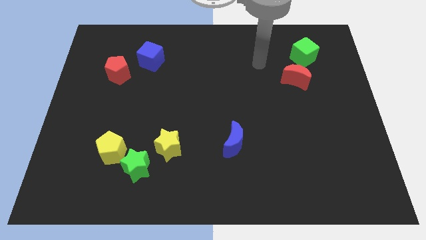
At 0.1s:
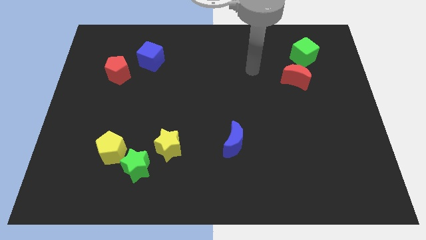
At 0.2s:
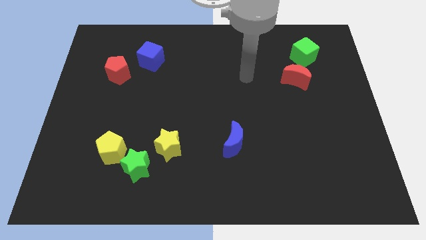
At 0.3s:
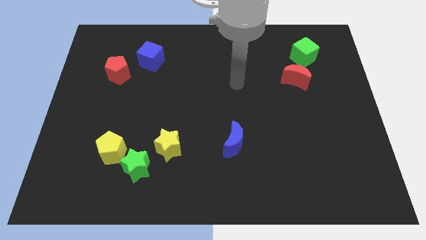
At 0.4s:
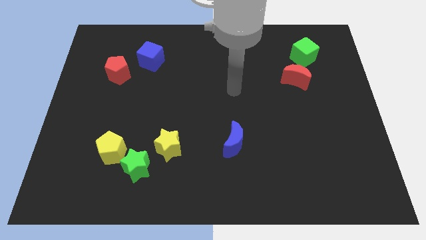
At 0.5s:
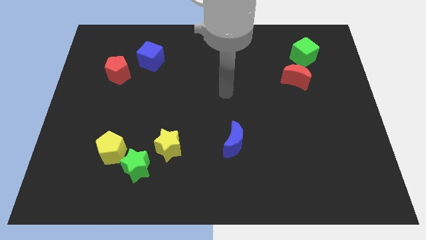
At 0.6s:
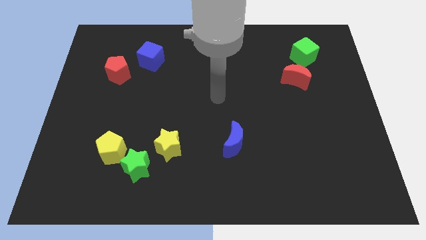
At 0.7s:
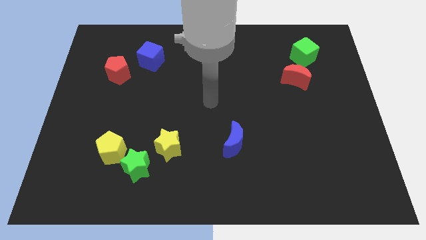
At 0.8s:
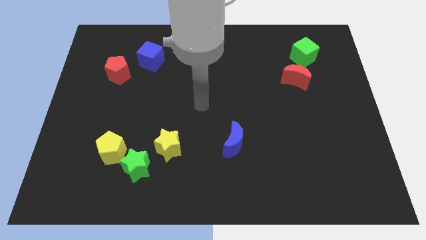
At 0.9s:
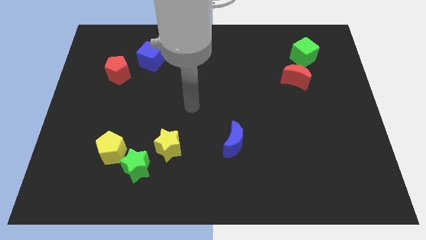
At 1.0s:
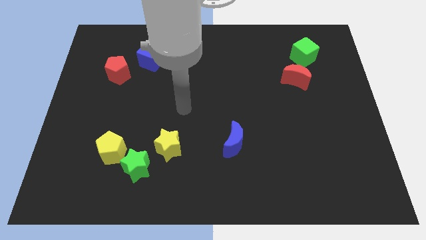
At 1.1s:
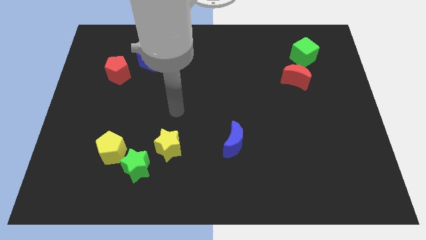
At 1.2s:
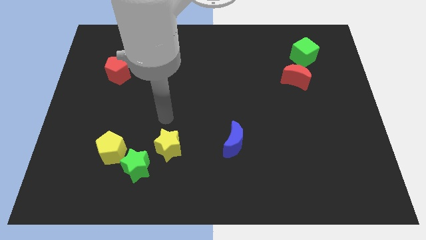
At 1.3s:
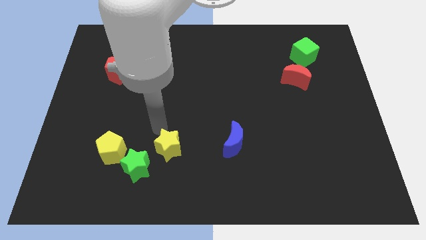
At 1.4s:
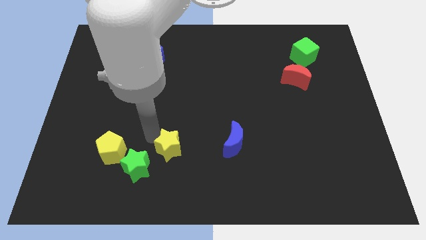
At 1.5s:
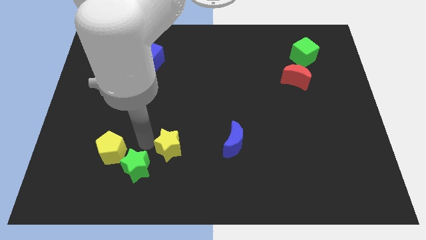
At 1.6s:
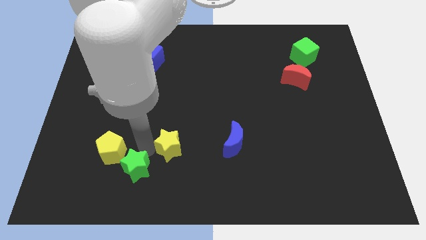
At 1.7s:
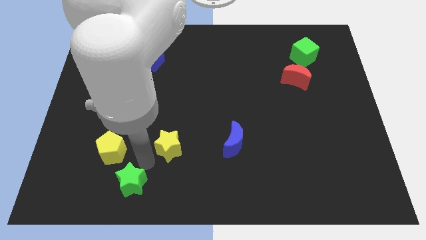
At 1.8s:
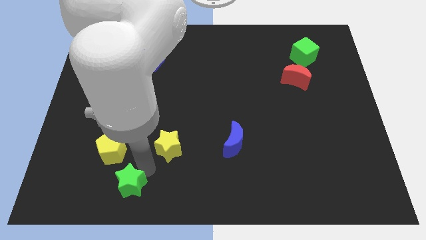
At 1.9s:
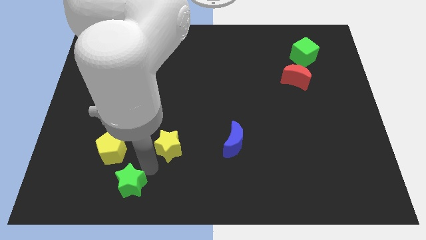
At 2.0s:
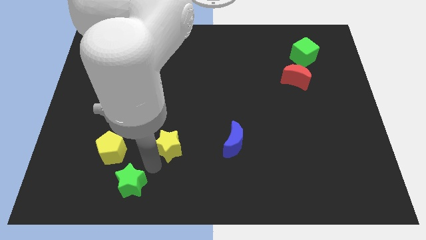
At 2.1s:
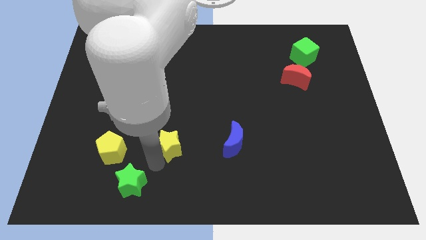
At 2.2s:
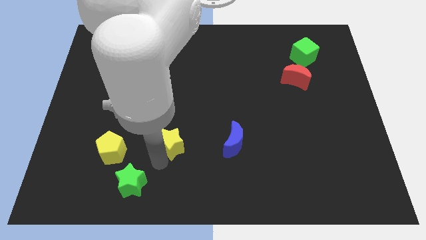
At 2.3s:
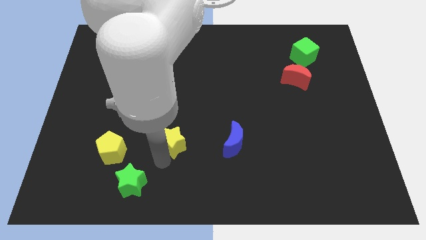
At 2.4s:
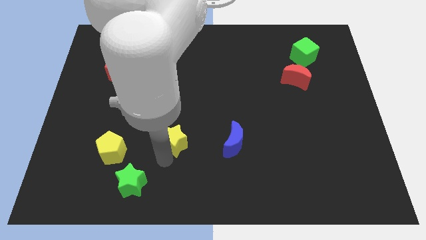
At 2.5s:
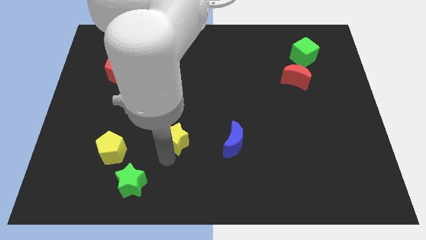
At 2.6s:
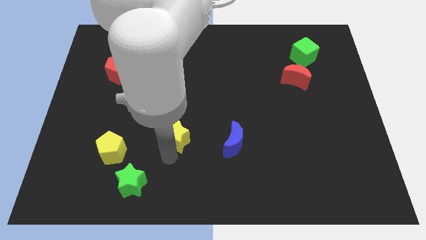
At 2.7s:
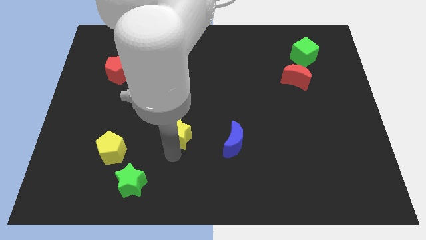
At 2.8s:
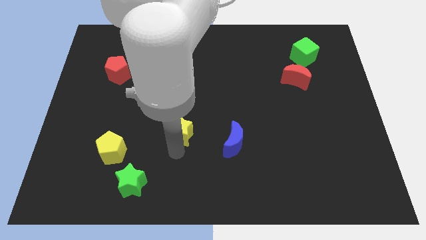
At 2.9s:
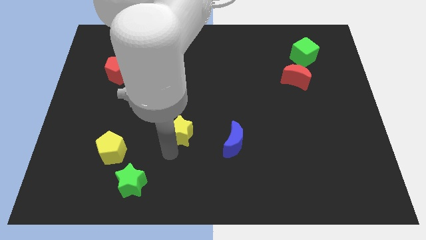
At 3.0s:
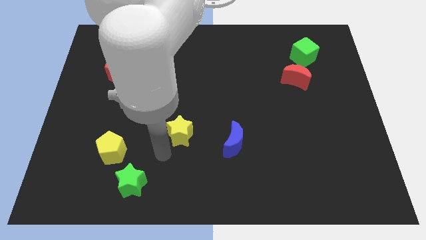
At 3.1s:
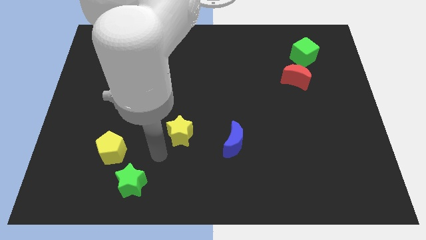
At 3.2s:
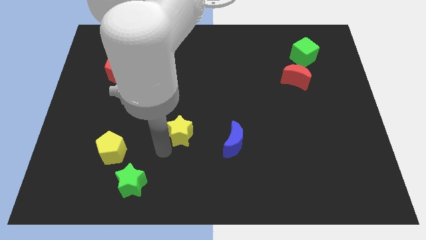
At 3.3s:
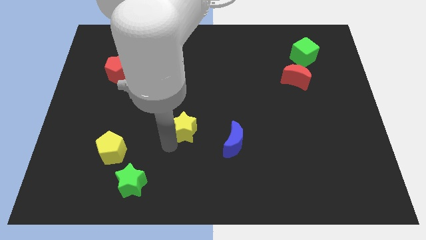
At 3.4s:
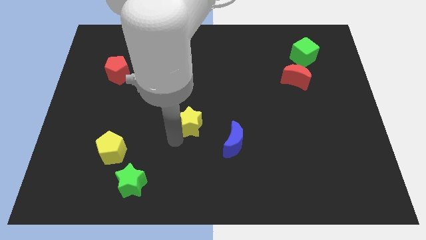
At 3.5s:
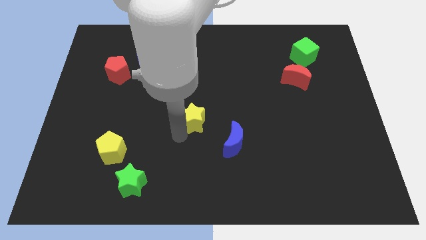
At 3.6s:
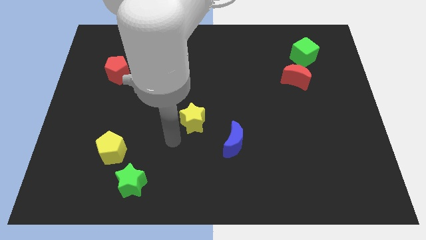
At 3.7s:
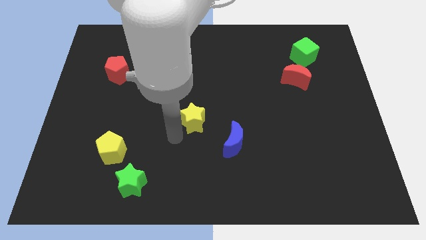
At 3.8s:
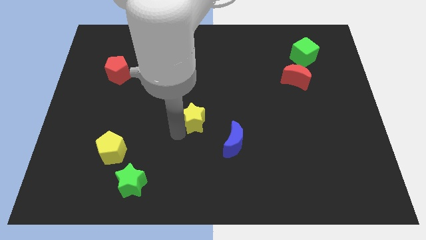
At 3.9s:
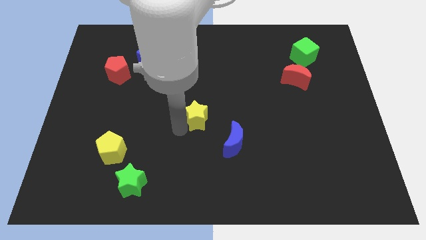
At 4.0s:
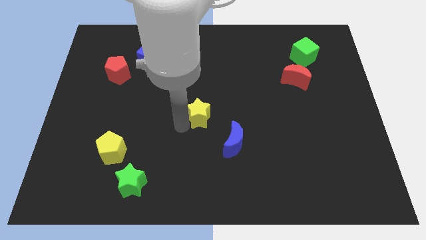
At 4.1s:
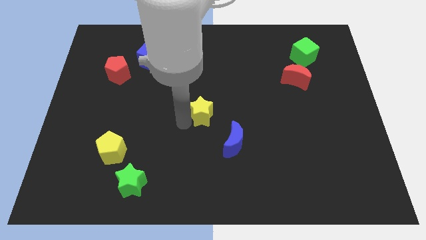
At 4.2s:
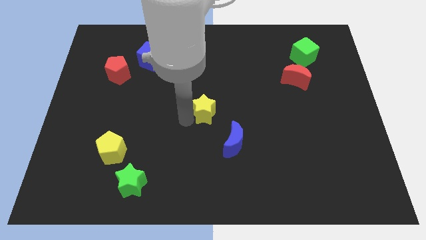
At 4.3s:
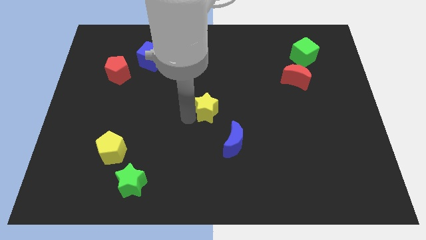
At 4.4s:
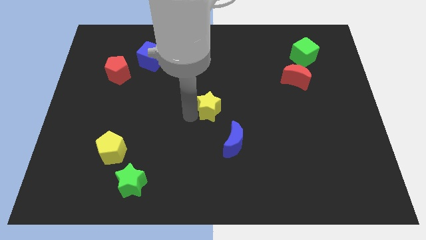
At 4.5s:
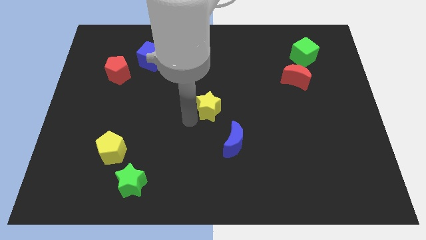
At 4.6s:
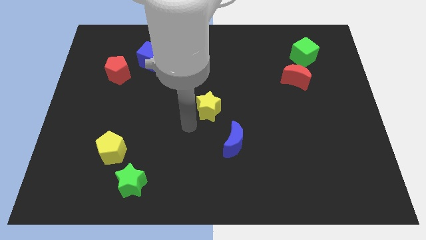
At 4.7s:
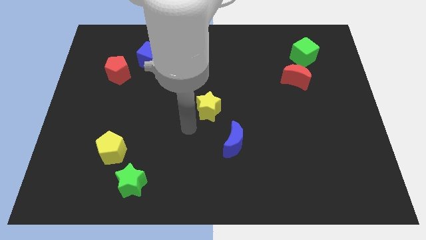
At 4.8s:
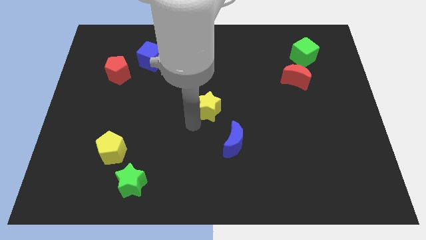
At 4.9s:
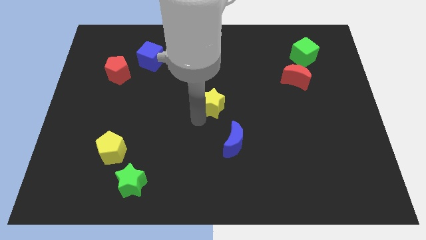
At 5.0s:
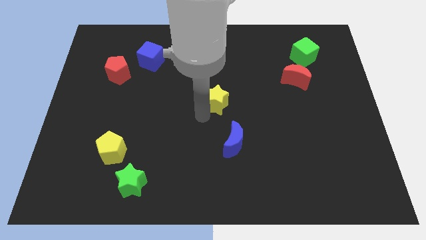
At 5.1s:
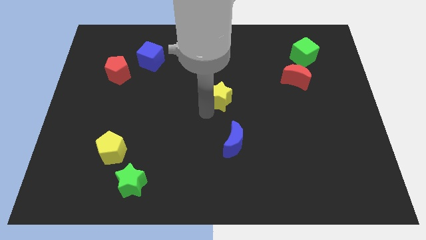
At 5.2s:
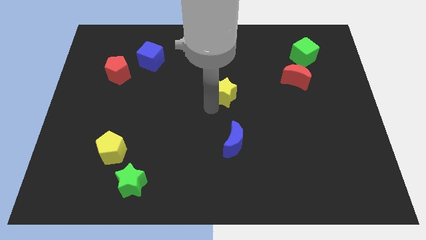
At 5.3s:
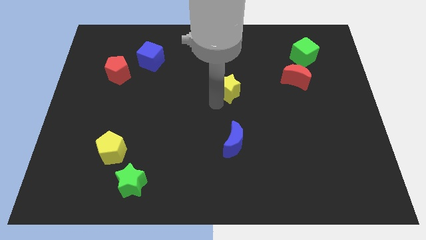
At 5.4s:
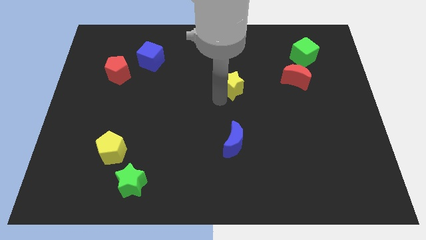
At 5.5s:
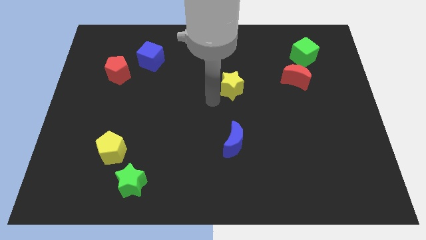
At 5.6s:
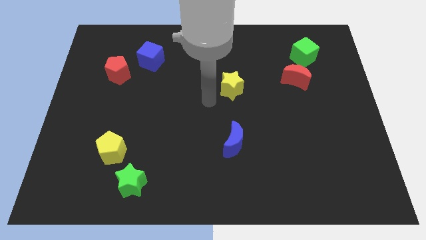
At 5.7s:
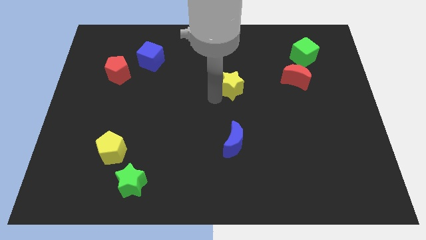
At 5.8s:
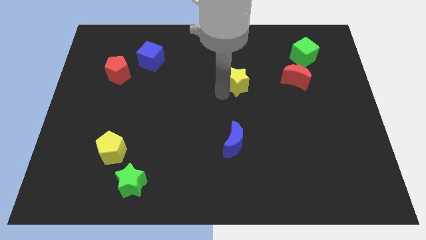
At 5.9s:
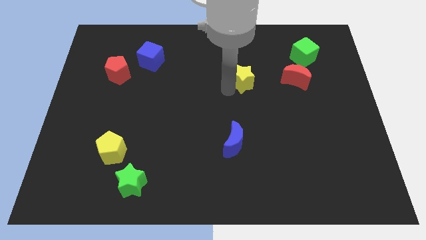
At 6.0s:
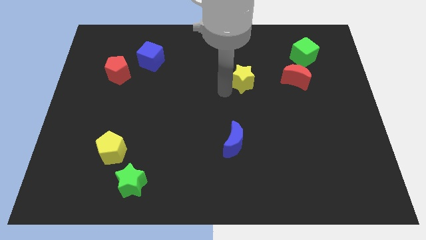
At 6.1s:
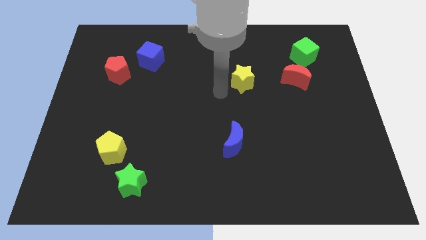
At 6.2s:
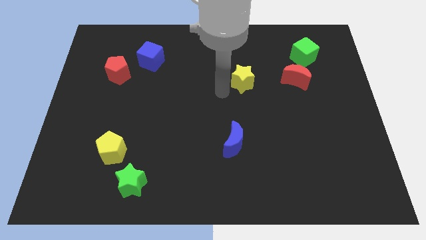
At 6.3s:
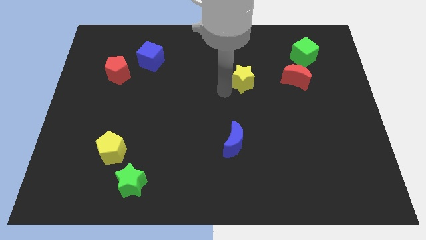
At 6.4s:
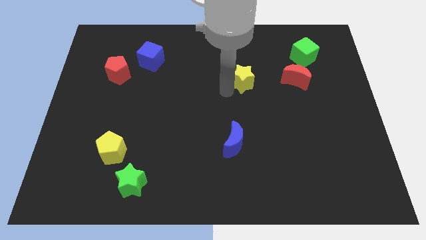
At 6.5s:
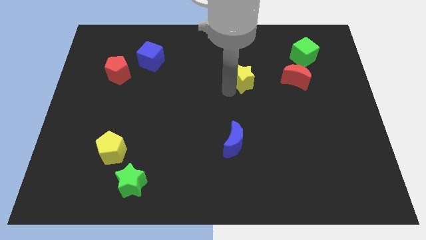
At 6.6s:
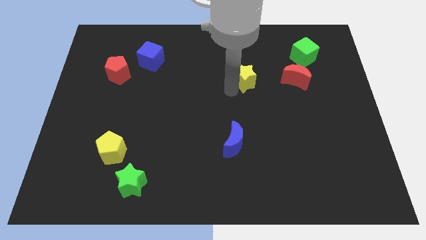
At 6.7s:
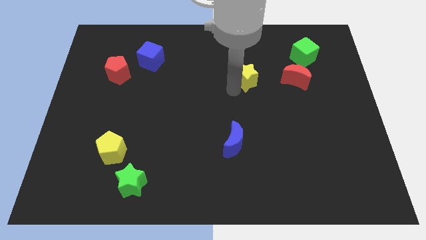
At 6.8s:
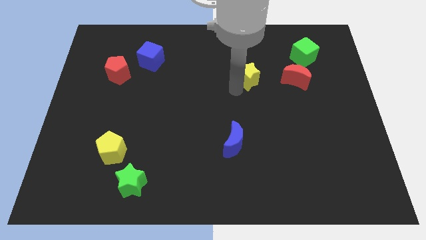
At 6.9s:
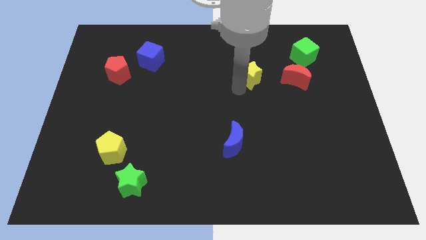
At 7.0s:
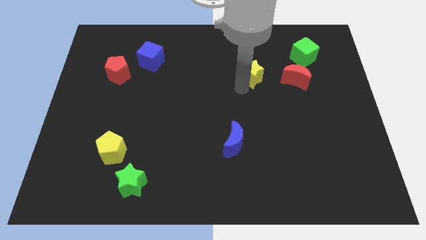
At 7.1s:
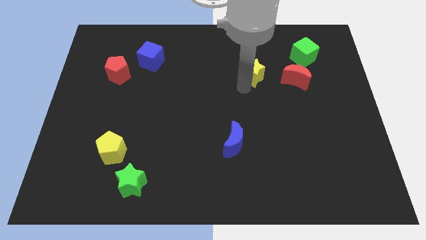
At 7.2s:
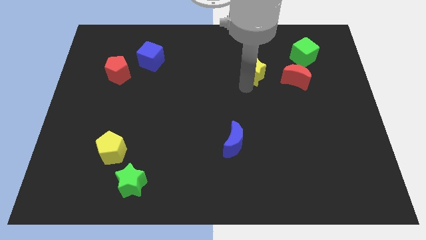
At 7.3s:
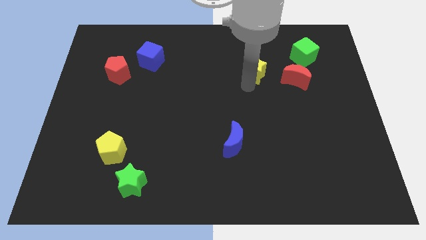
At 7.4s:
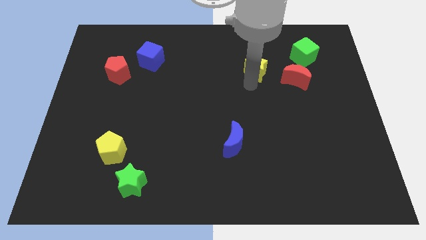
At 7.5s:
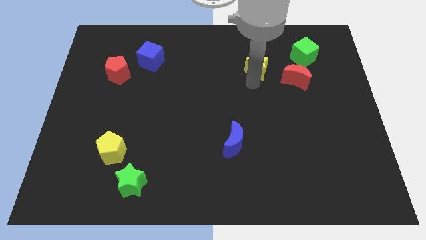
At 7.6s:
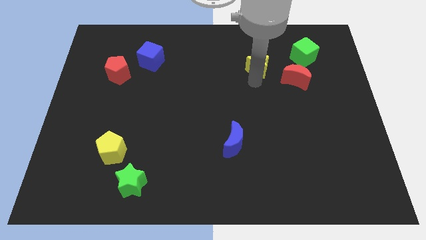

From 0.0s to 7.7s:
push the yellow star to the left of the green cube
